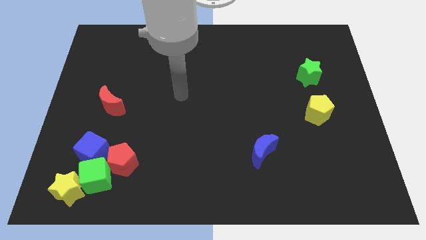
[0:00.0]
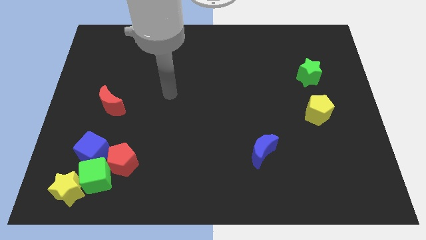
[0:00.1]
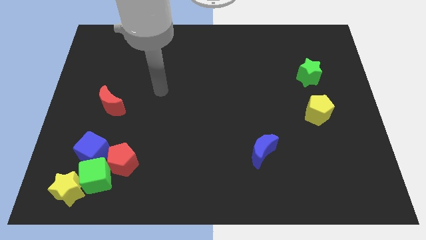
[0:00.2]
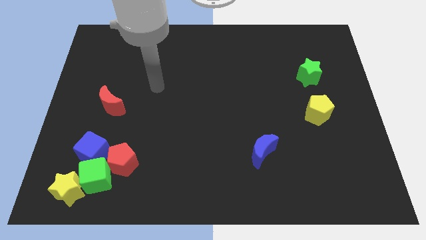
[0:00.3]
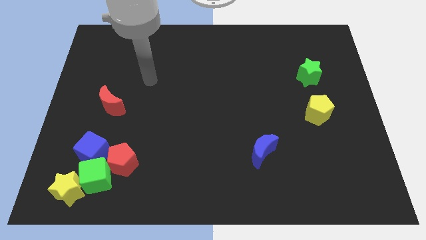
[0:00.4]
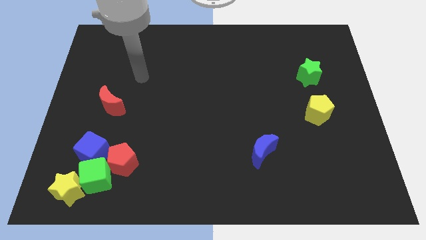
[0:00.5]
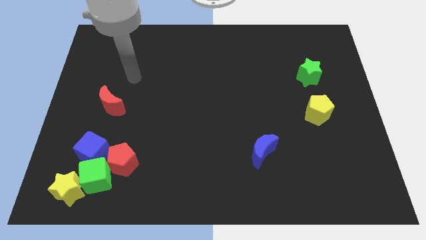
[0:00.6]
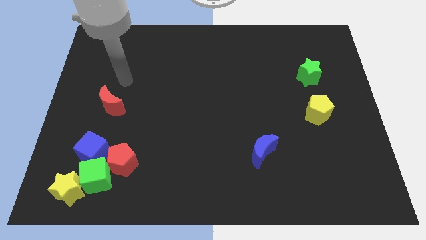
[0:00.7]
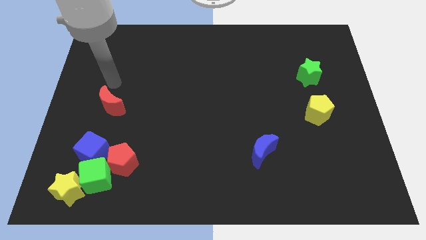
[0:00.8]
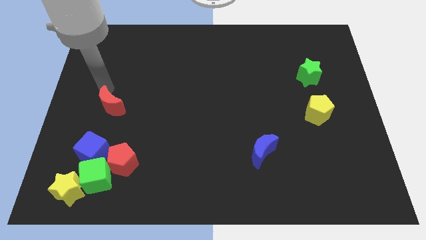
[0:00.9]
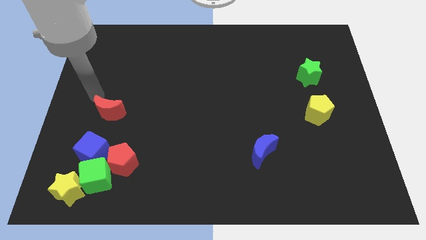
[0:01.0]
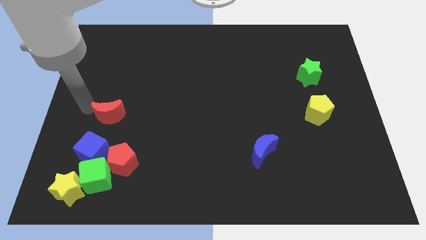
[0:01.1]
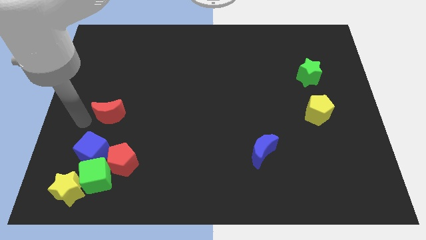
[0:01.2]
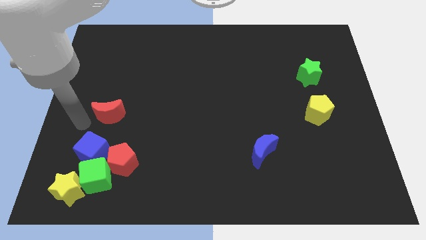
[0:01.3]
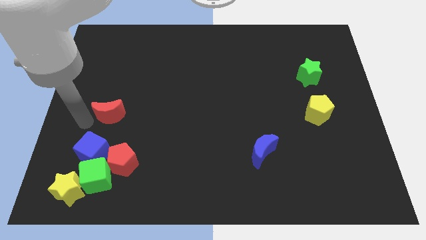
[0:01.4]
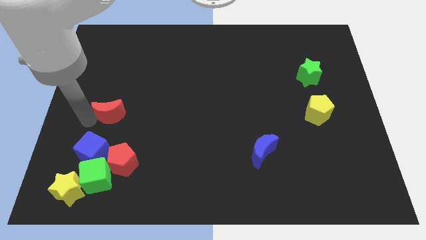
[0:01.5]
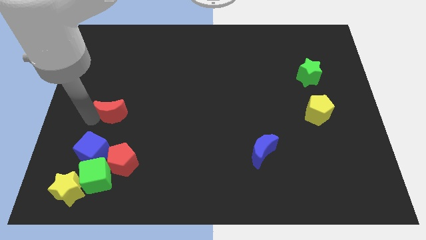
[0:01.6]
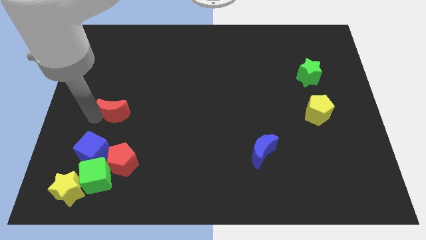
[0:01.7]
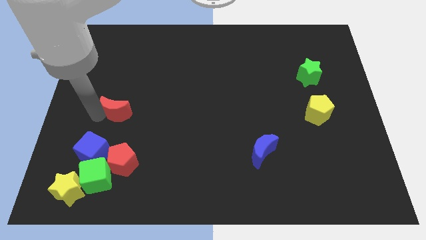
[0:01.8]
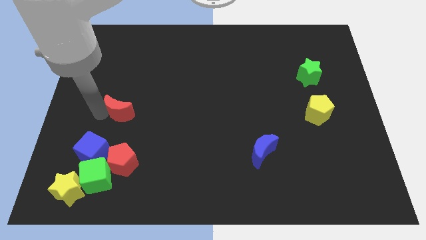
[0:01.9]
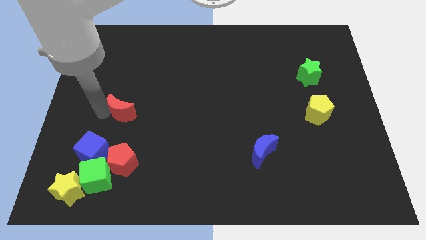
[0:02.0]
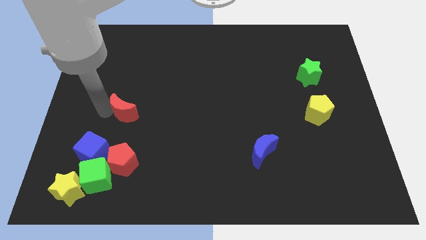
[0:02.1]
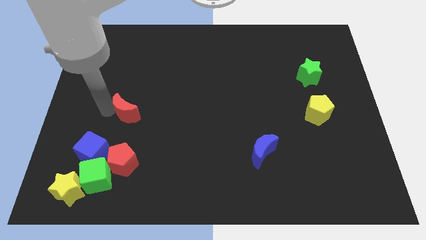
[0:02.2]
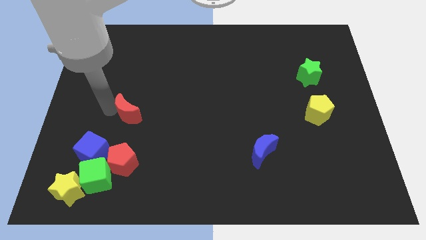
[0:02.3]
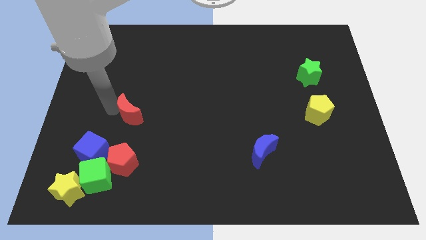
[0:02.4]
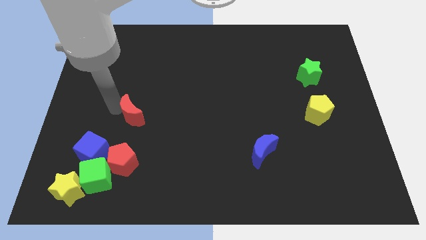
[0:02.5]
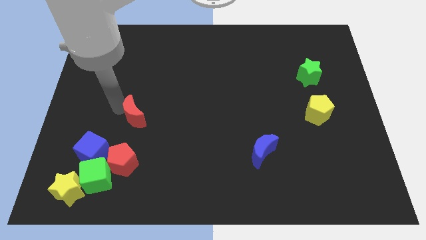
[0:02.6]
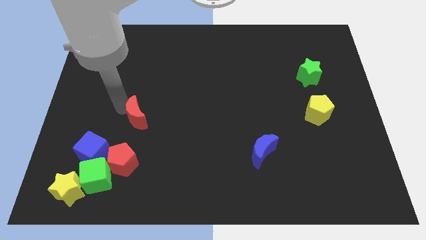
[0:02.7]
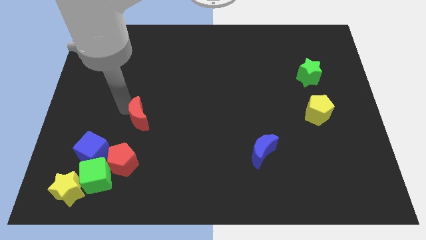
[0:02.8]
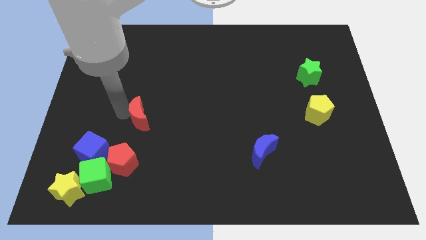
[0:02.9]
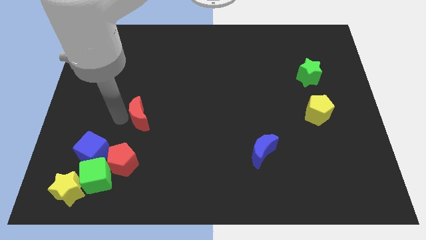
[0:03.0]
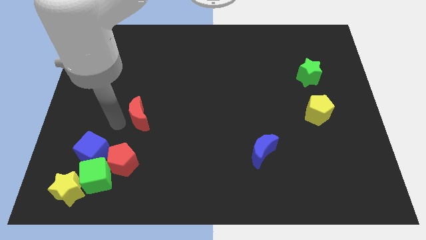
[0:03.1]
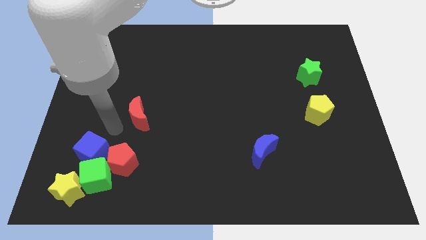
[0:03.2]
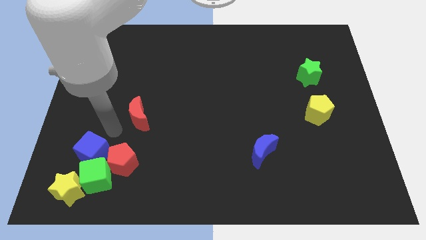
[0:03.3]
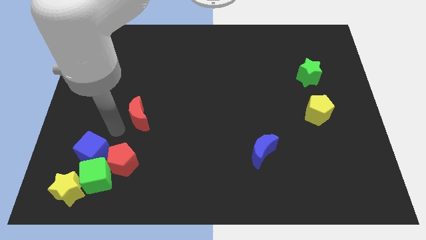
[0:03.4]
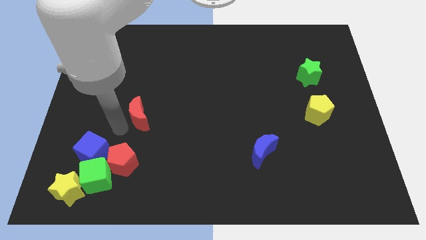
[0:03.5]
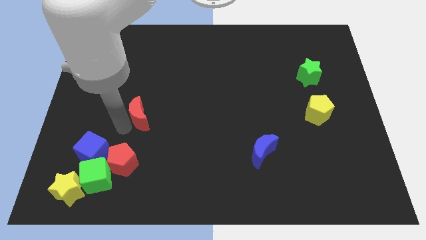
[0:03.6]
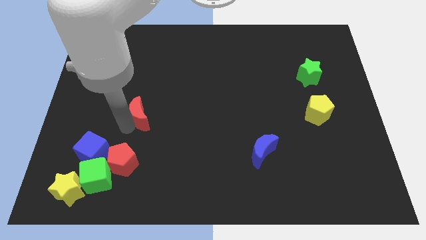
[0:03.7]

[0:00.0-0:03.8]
push the red moon a little bit to the right

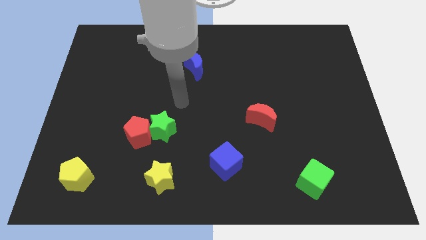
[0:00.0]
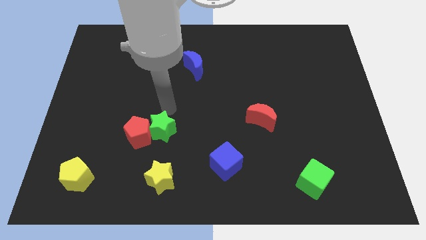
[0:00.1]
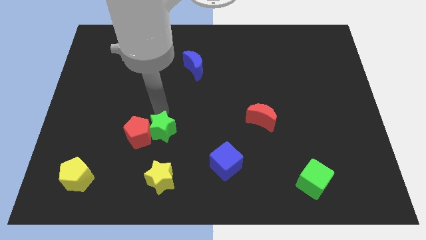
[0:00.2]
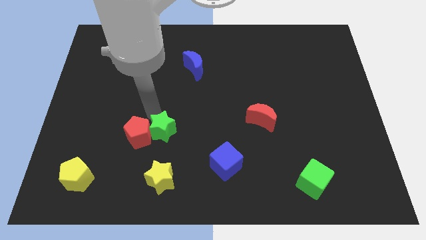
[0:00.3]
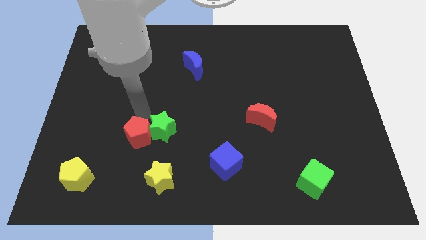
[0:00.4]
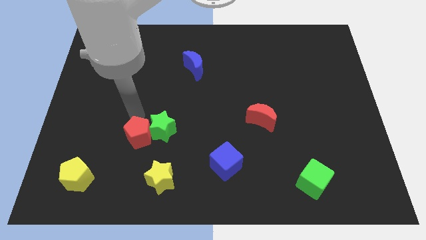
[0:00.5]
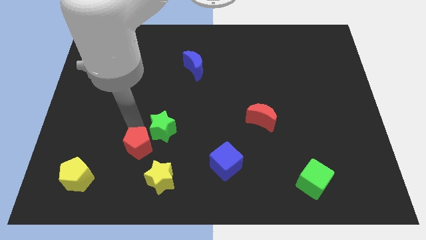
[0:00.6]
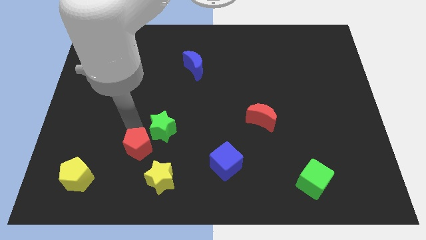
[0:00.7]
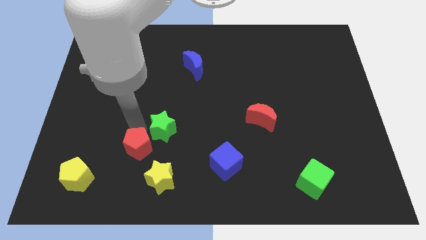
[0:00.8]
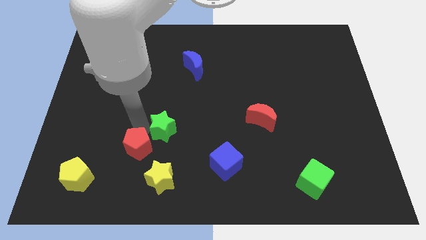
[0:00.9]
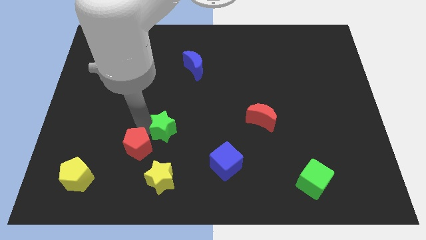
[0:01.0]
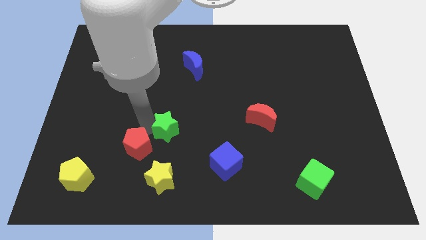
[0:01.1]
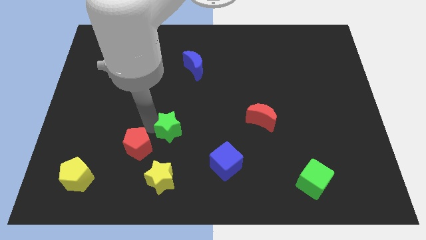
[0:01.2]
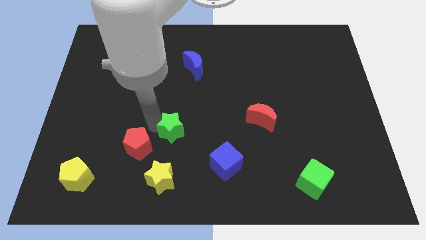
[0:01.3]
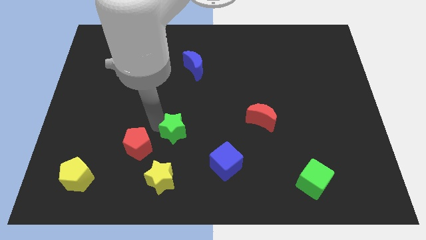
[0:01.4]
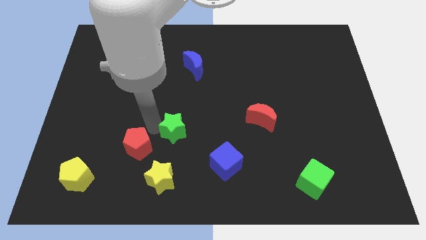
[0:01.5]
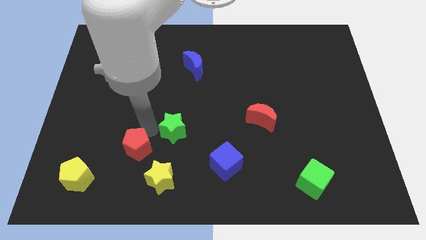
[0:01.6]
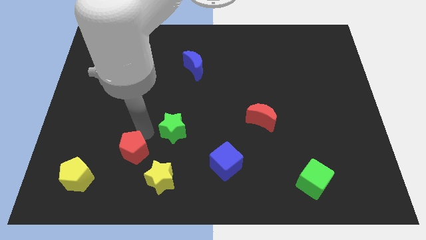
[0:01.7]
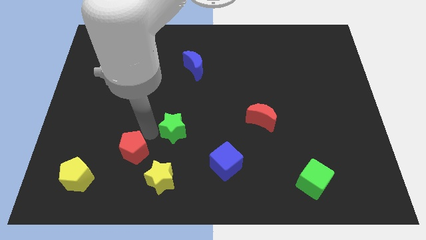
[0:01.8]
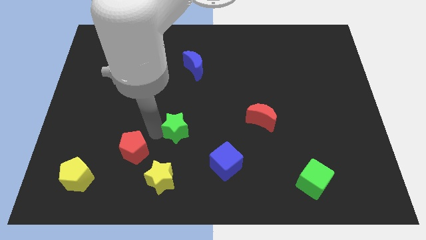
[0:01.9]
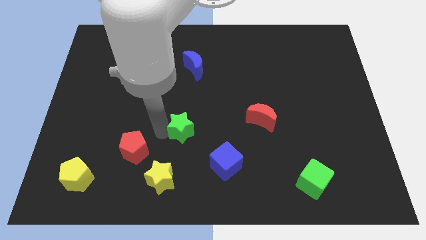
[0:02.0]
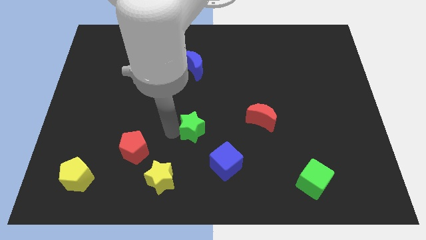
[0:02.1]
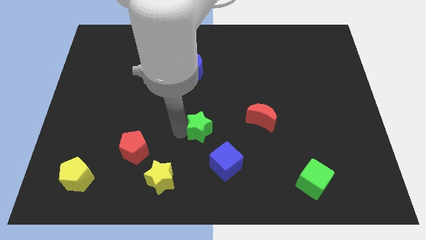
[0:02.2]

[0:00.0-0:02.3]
slightly move the green star right

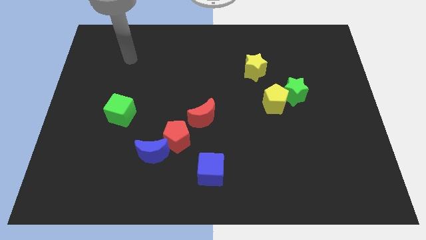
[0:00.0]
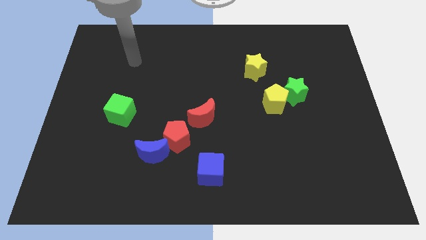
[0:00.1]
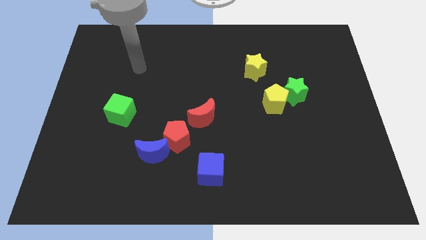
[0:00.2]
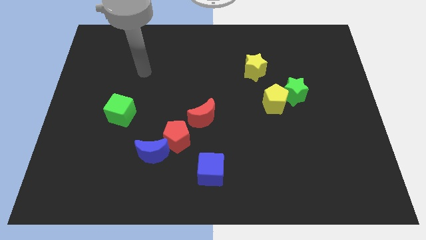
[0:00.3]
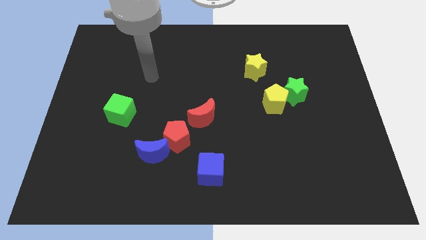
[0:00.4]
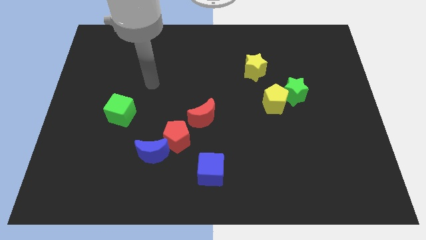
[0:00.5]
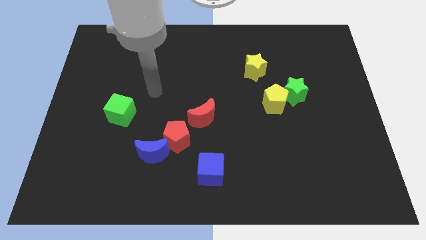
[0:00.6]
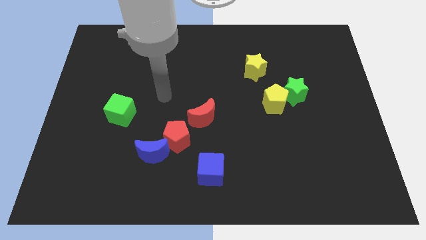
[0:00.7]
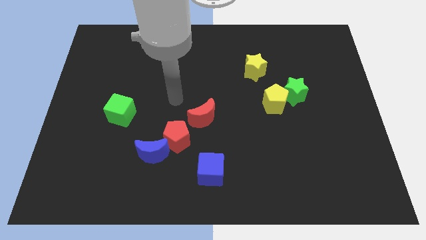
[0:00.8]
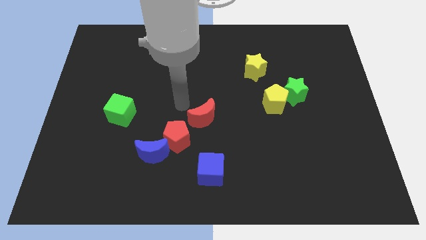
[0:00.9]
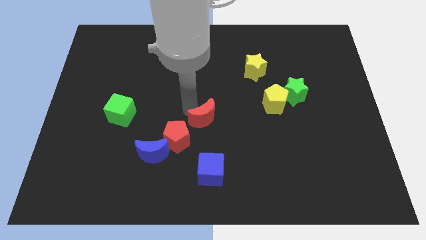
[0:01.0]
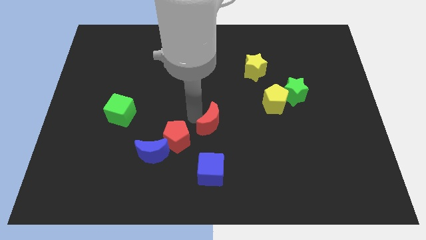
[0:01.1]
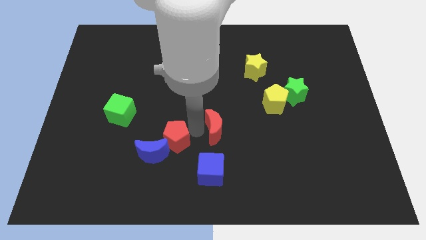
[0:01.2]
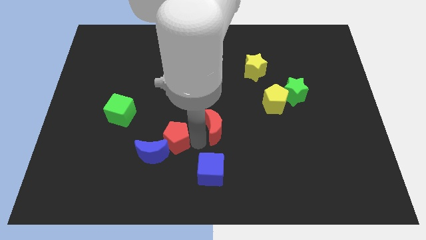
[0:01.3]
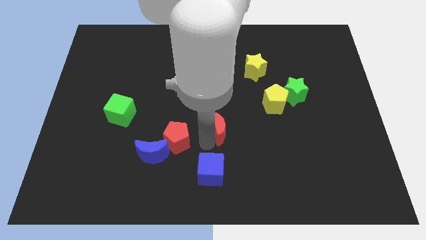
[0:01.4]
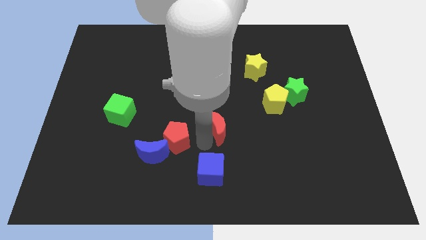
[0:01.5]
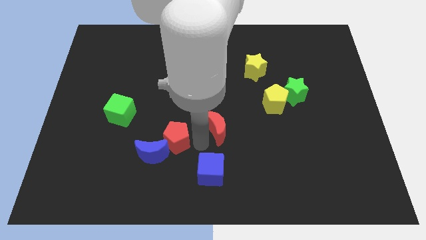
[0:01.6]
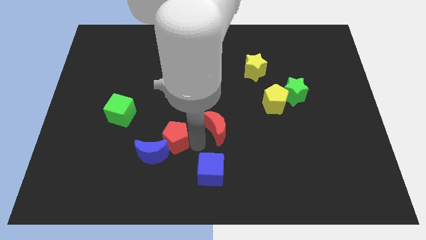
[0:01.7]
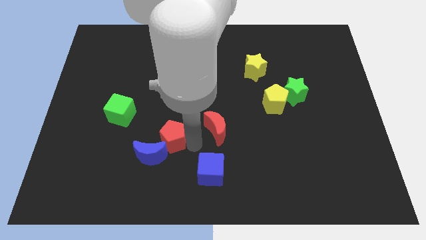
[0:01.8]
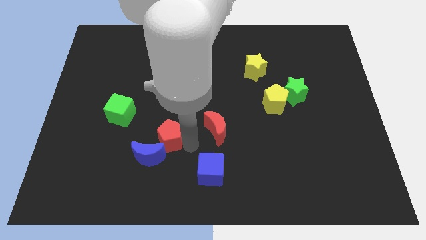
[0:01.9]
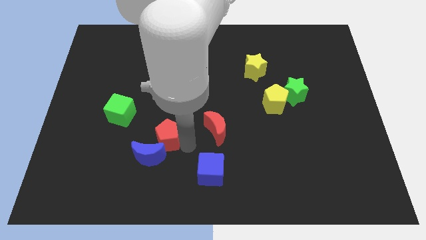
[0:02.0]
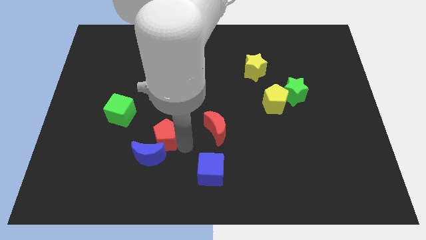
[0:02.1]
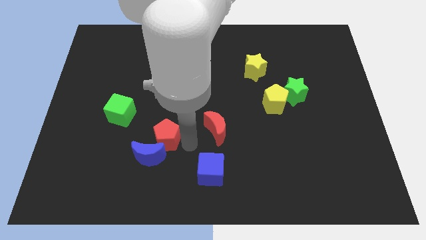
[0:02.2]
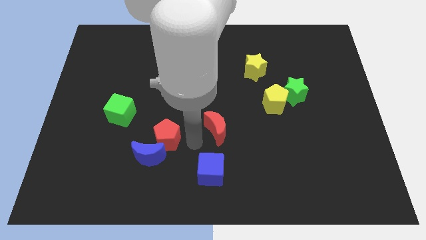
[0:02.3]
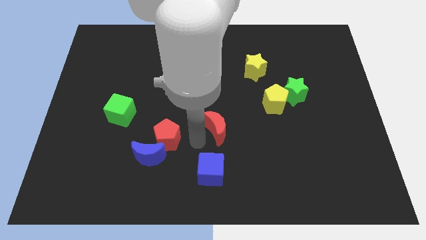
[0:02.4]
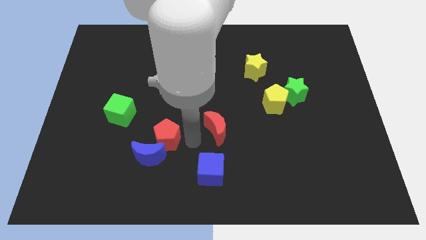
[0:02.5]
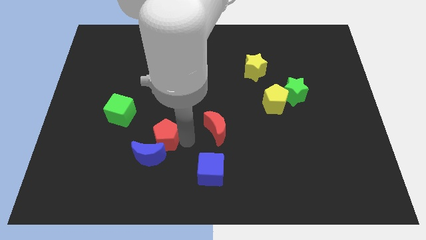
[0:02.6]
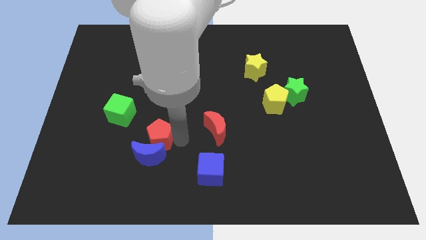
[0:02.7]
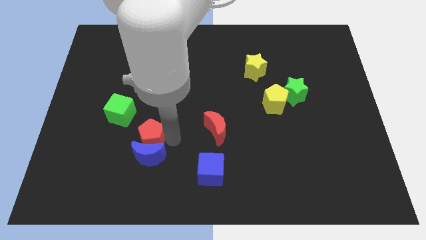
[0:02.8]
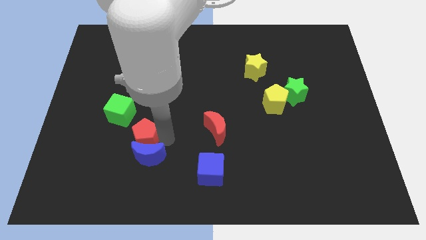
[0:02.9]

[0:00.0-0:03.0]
slightly slide the red pentagon left
